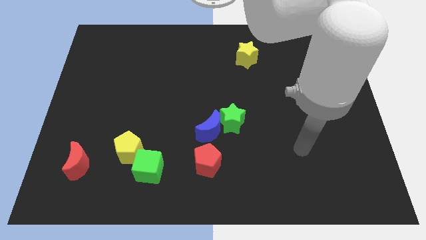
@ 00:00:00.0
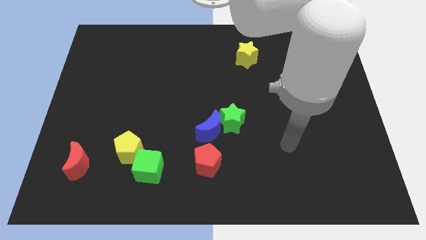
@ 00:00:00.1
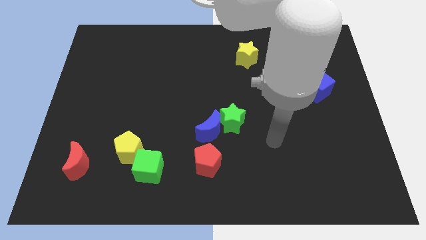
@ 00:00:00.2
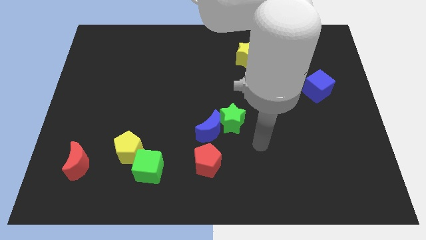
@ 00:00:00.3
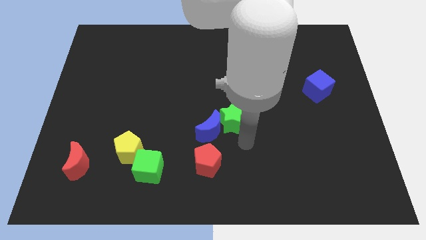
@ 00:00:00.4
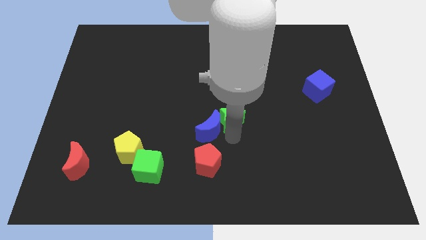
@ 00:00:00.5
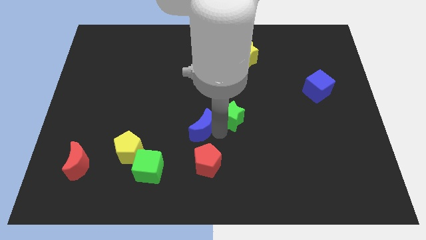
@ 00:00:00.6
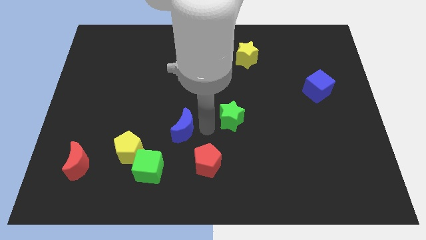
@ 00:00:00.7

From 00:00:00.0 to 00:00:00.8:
move the green star away from the blue moon

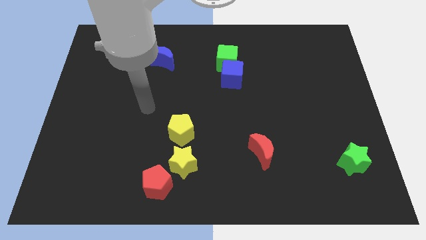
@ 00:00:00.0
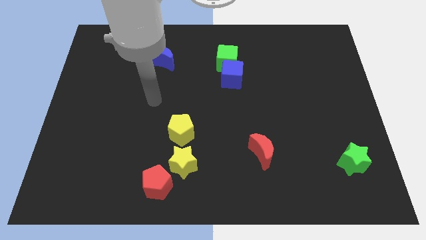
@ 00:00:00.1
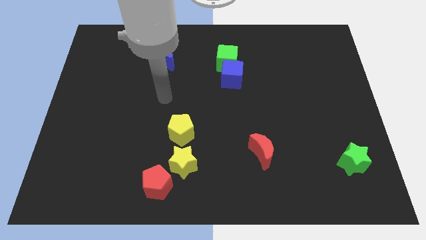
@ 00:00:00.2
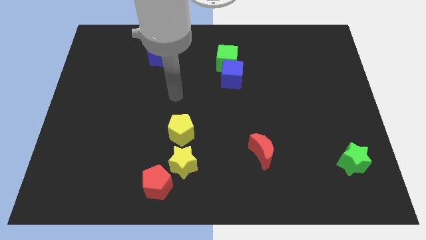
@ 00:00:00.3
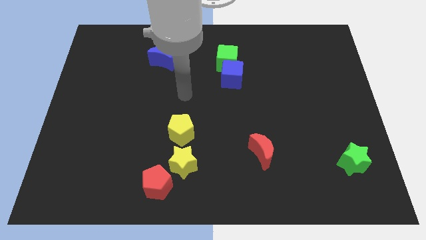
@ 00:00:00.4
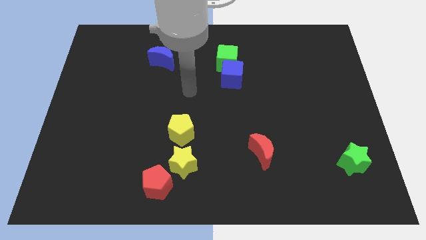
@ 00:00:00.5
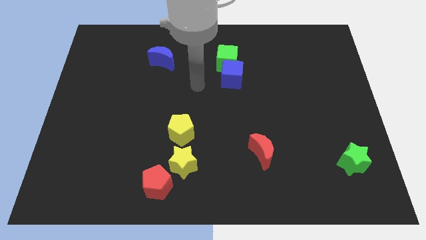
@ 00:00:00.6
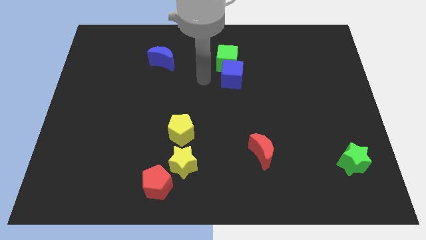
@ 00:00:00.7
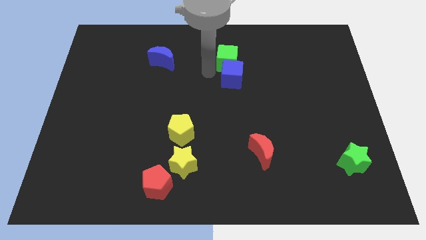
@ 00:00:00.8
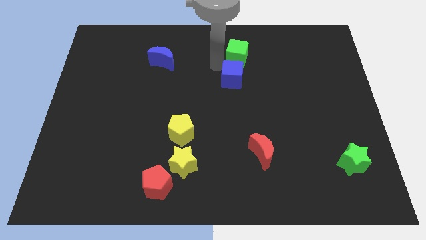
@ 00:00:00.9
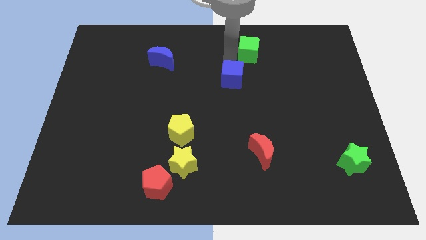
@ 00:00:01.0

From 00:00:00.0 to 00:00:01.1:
move the blue cube away from the green cube

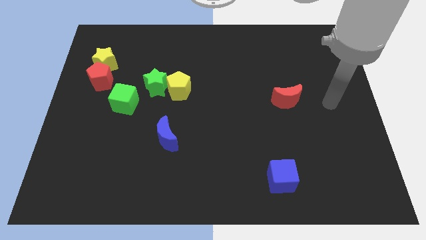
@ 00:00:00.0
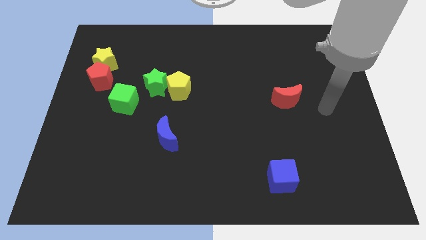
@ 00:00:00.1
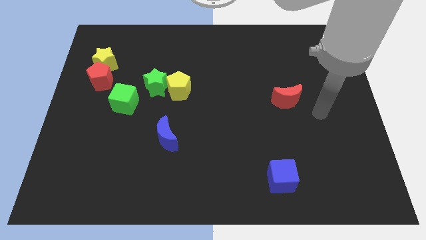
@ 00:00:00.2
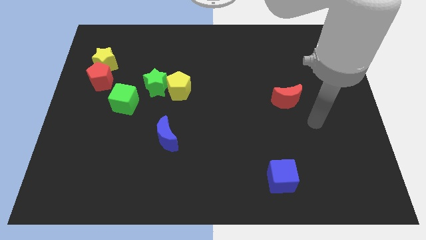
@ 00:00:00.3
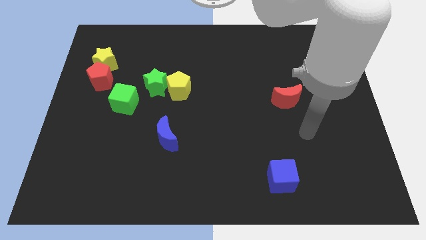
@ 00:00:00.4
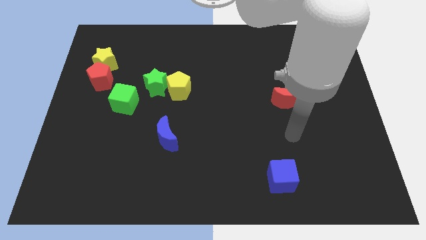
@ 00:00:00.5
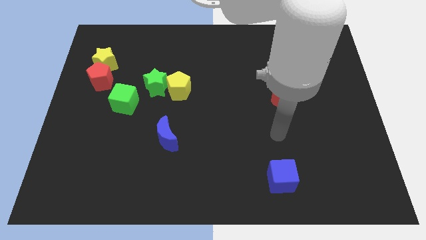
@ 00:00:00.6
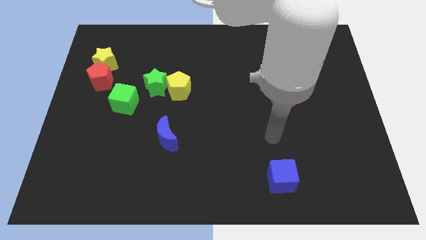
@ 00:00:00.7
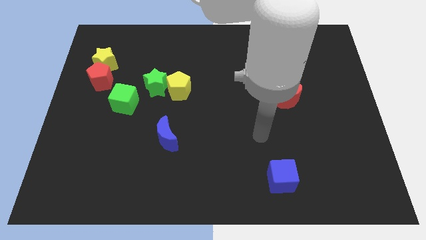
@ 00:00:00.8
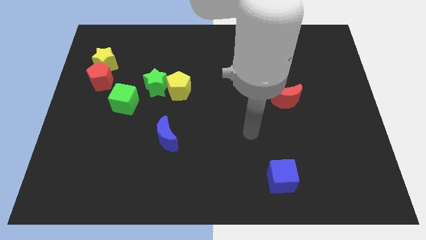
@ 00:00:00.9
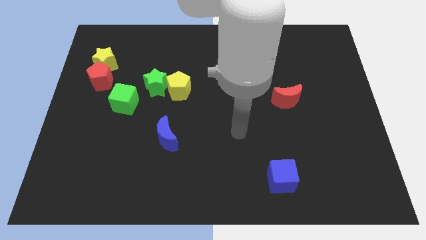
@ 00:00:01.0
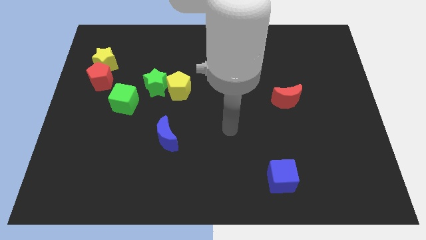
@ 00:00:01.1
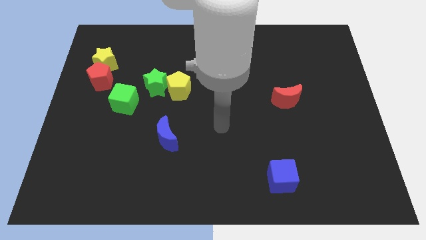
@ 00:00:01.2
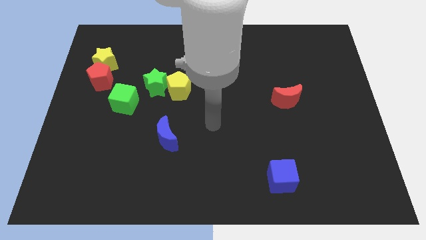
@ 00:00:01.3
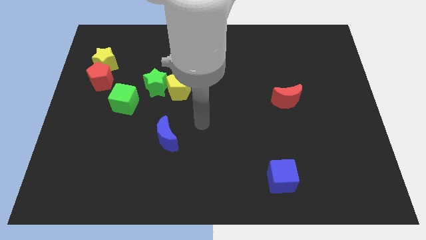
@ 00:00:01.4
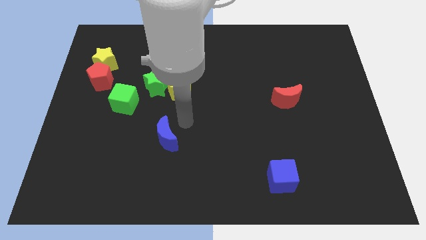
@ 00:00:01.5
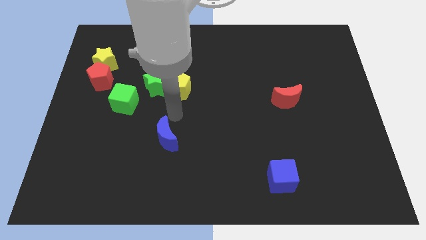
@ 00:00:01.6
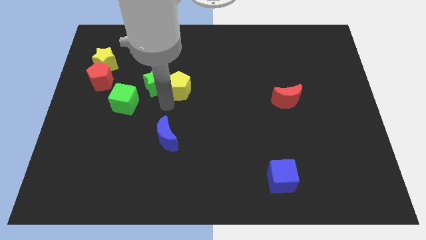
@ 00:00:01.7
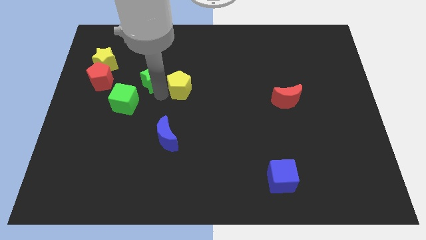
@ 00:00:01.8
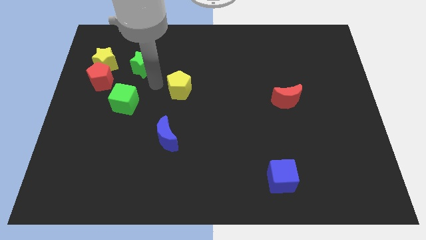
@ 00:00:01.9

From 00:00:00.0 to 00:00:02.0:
move the yellow pentagon away from the green star

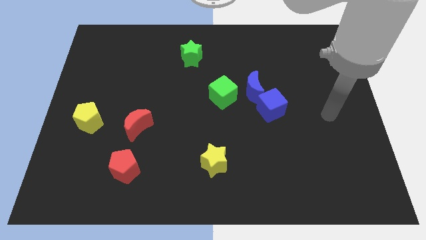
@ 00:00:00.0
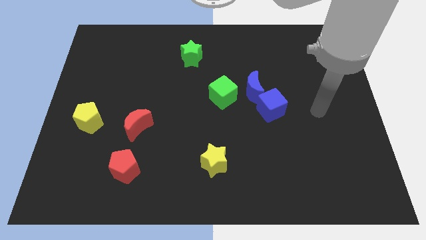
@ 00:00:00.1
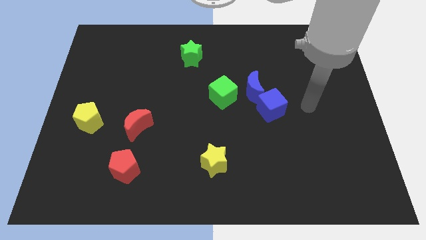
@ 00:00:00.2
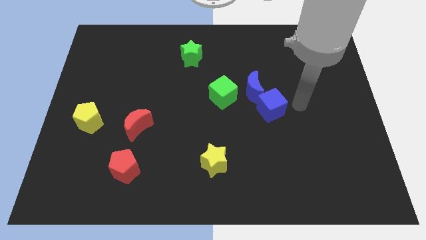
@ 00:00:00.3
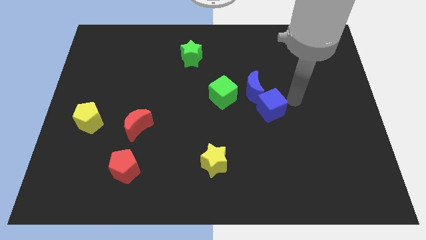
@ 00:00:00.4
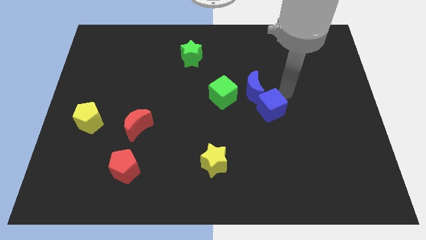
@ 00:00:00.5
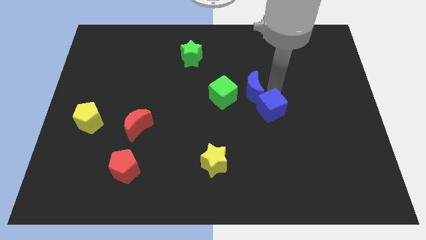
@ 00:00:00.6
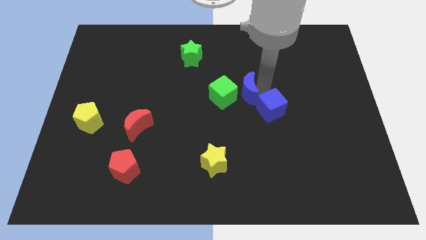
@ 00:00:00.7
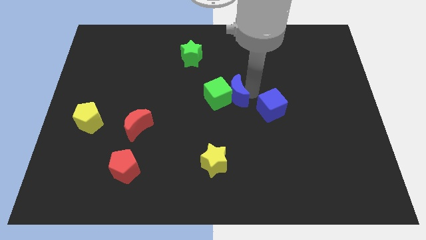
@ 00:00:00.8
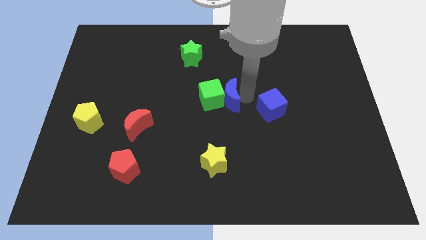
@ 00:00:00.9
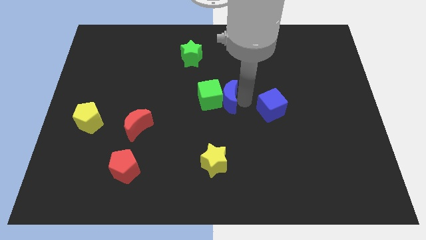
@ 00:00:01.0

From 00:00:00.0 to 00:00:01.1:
pull the blue cube apart from the blue moon

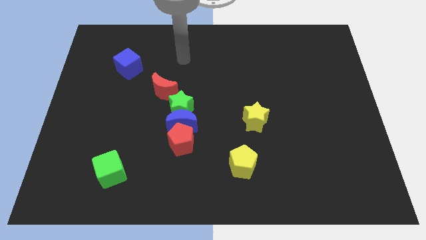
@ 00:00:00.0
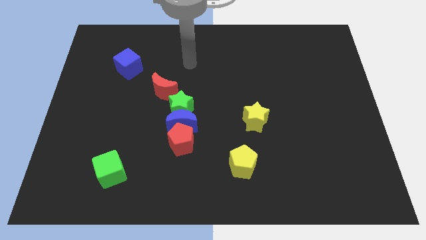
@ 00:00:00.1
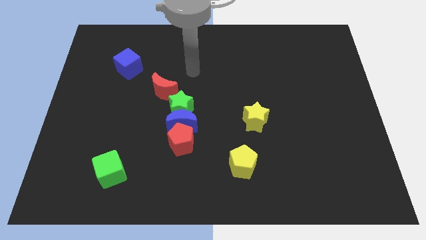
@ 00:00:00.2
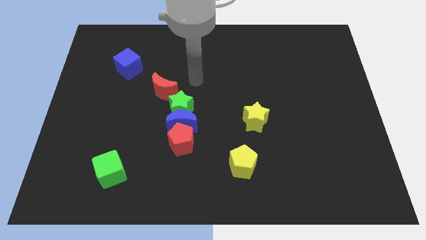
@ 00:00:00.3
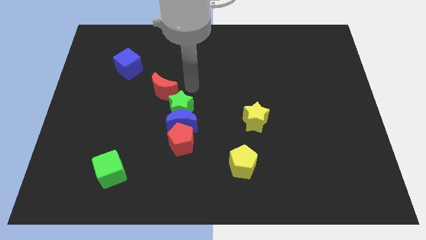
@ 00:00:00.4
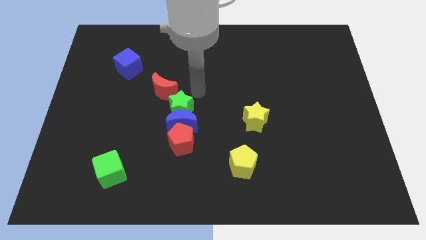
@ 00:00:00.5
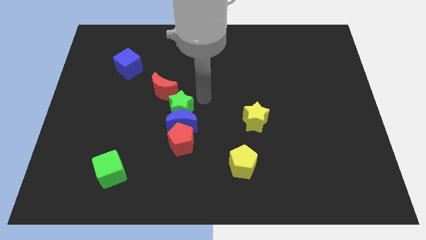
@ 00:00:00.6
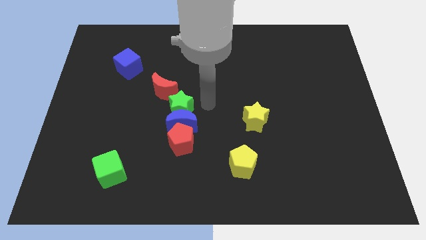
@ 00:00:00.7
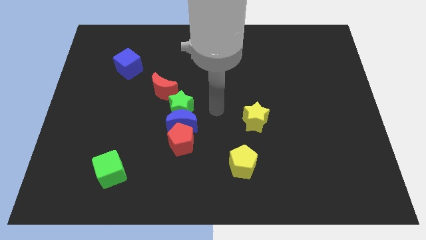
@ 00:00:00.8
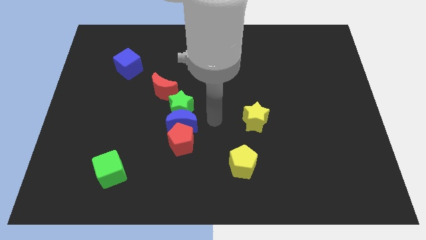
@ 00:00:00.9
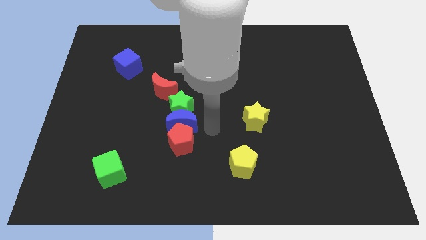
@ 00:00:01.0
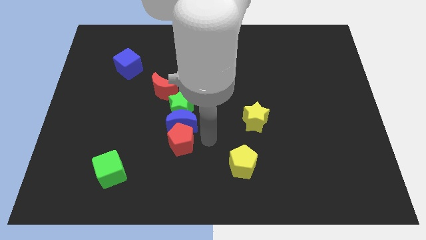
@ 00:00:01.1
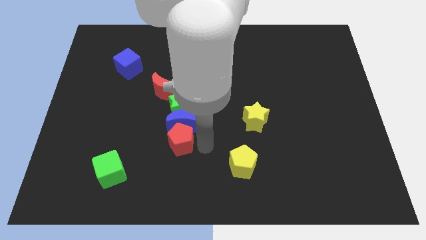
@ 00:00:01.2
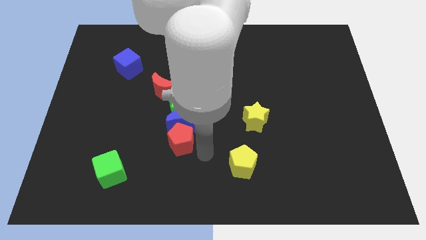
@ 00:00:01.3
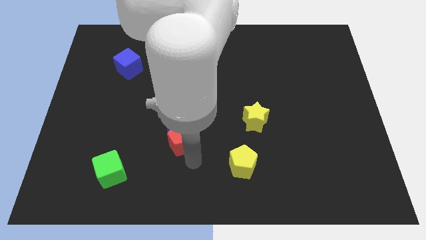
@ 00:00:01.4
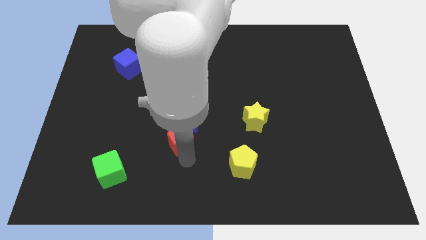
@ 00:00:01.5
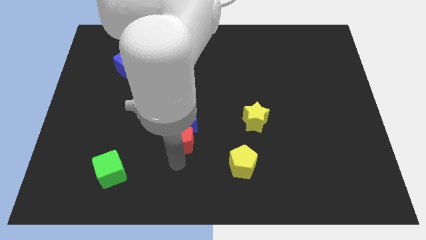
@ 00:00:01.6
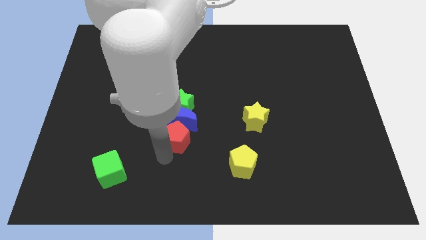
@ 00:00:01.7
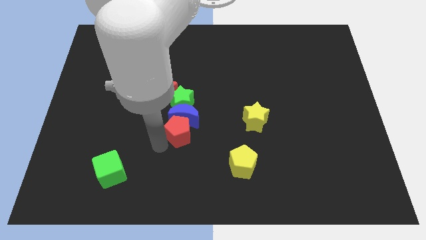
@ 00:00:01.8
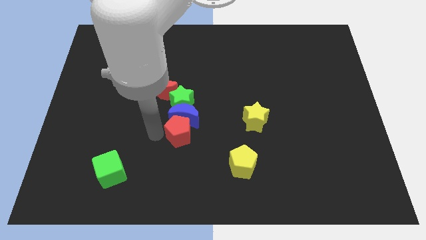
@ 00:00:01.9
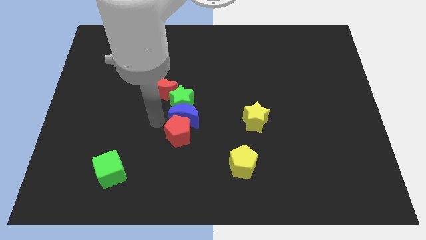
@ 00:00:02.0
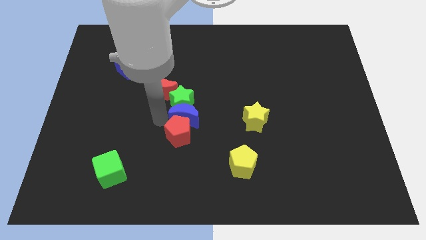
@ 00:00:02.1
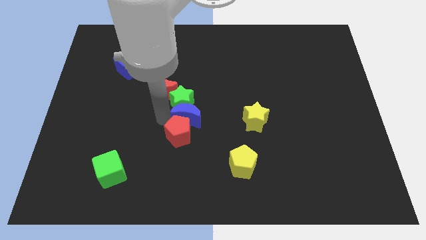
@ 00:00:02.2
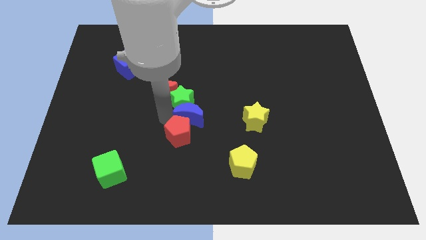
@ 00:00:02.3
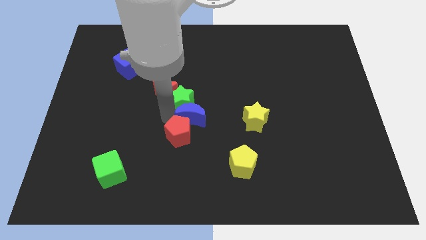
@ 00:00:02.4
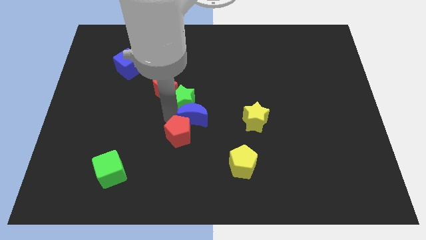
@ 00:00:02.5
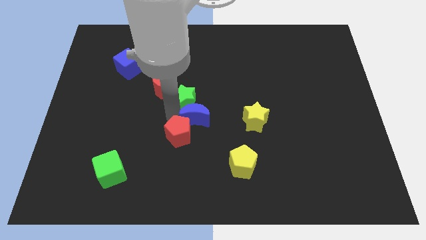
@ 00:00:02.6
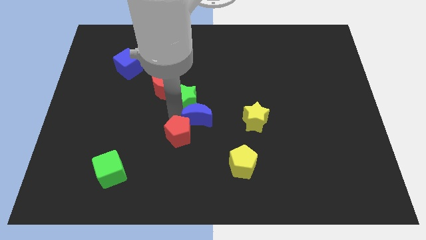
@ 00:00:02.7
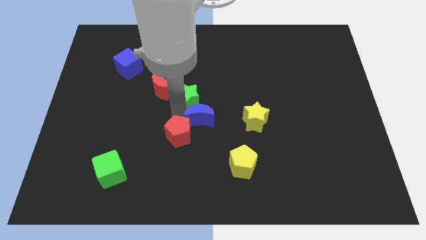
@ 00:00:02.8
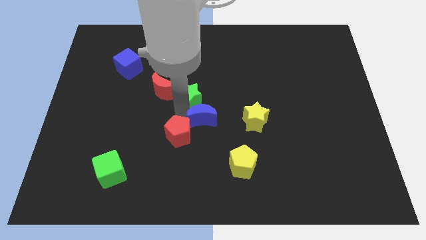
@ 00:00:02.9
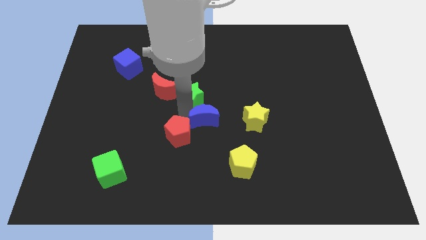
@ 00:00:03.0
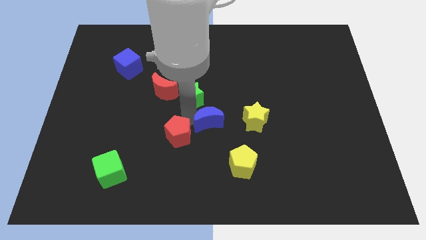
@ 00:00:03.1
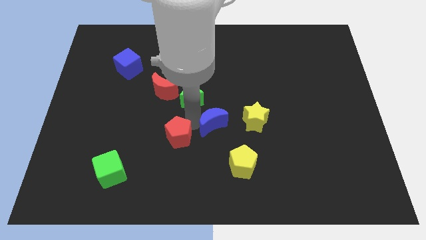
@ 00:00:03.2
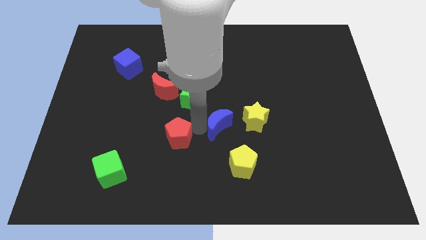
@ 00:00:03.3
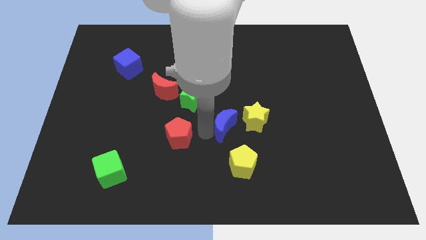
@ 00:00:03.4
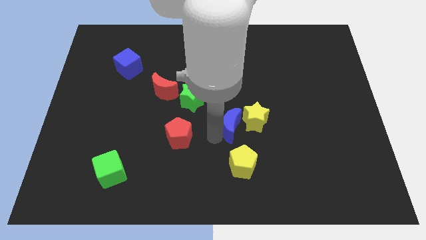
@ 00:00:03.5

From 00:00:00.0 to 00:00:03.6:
pull the blue moon apart from the green star and red pentagon

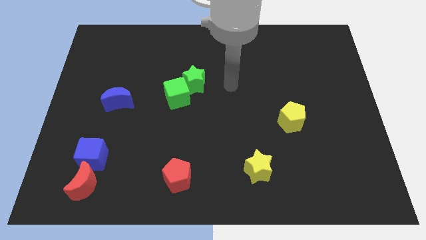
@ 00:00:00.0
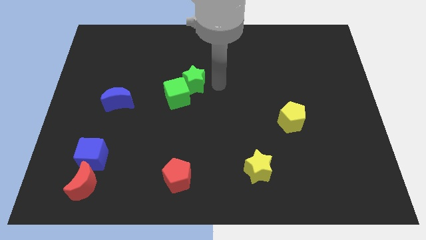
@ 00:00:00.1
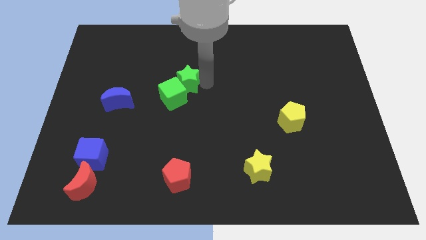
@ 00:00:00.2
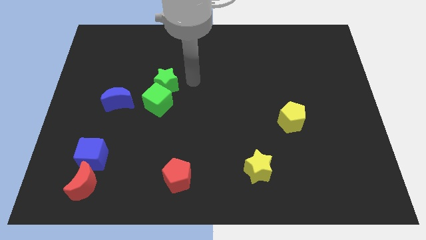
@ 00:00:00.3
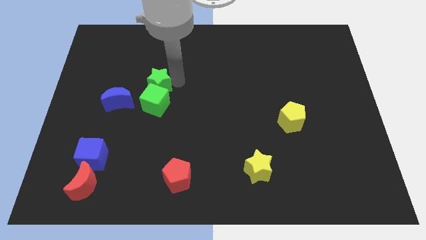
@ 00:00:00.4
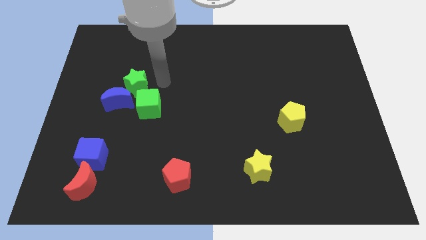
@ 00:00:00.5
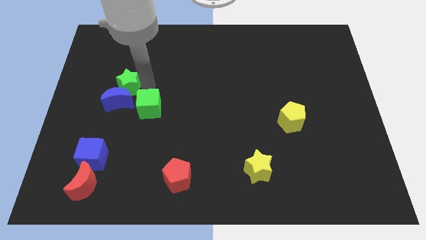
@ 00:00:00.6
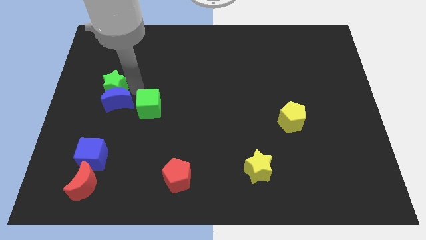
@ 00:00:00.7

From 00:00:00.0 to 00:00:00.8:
move the green cube away from the green star
